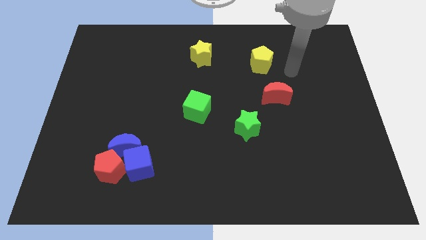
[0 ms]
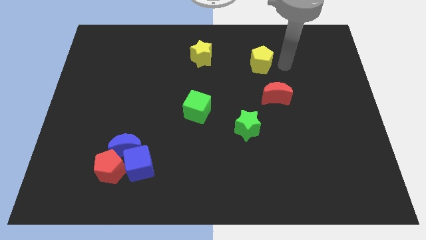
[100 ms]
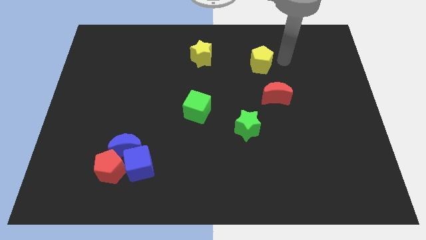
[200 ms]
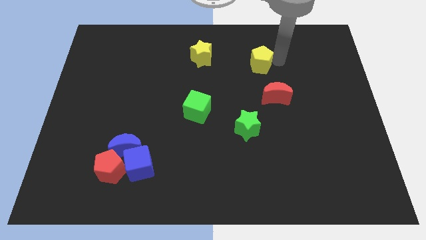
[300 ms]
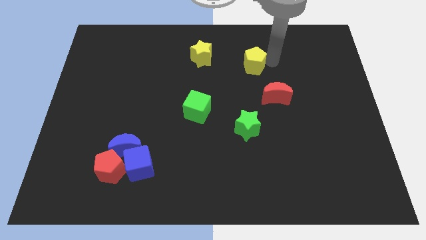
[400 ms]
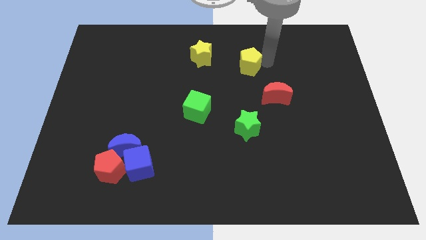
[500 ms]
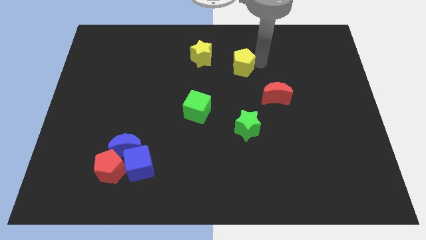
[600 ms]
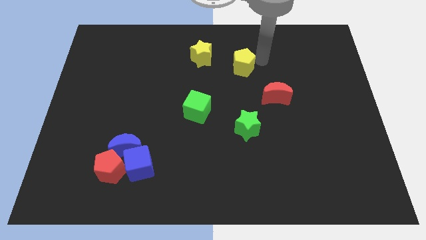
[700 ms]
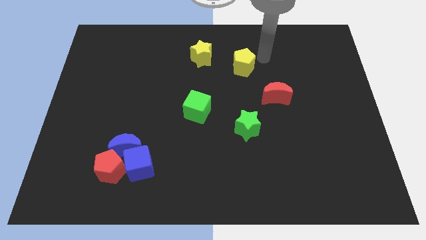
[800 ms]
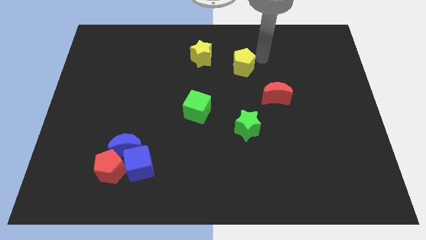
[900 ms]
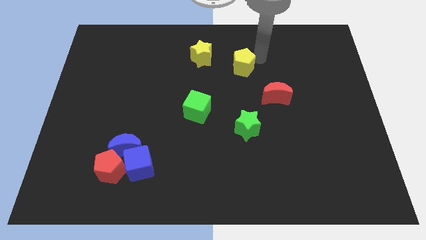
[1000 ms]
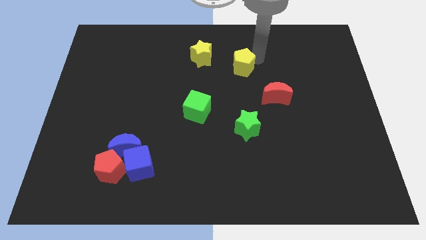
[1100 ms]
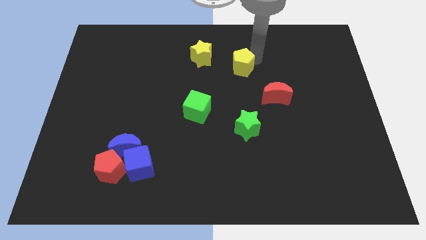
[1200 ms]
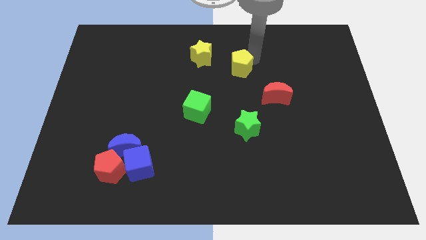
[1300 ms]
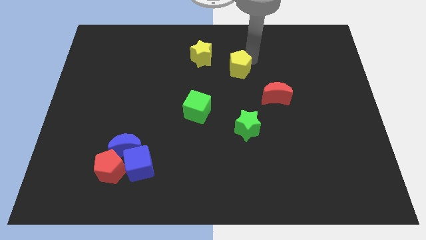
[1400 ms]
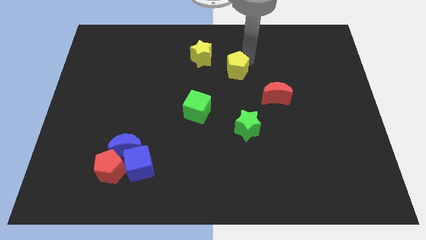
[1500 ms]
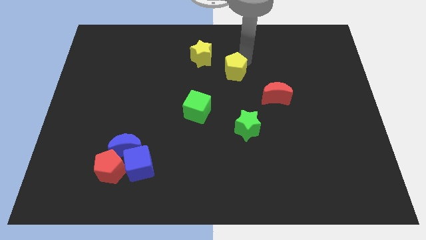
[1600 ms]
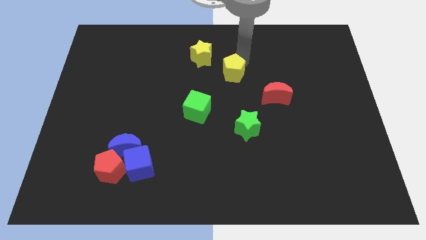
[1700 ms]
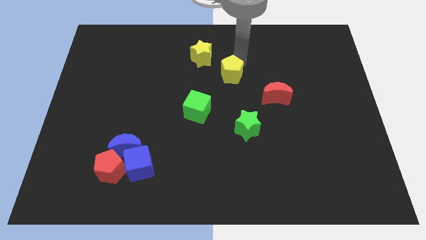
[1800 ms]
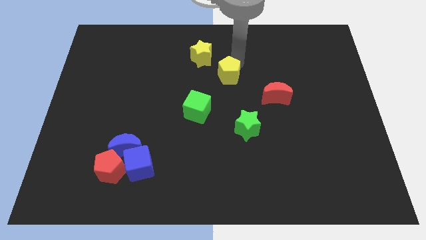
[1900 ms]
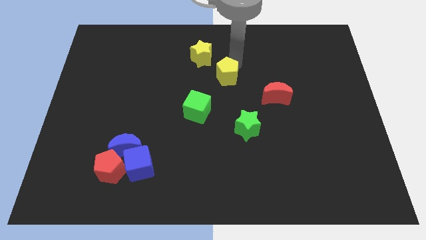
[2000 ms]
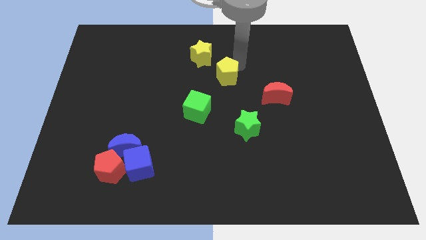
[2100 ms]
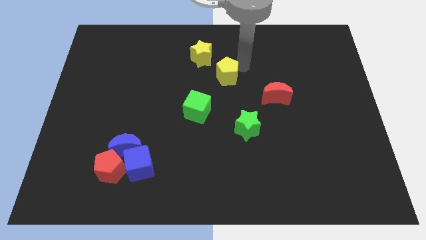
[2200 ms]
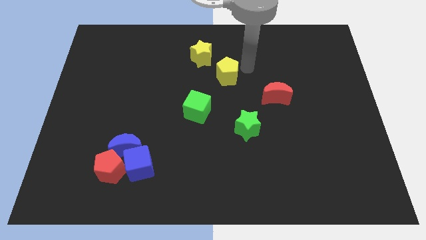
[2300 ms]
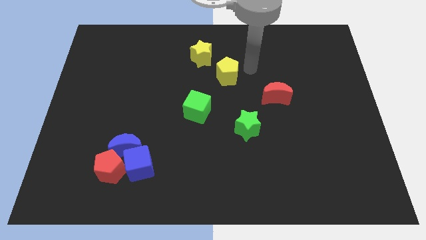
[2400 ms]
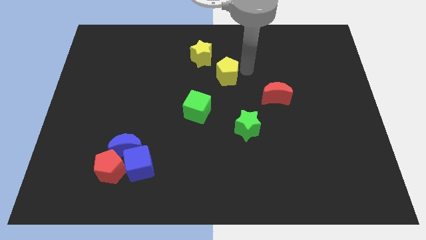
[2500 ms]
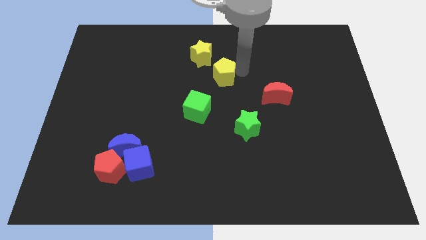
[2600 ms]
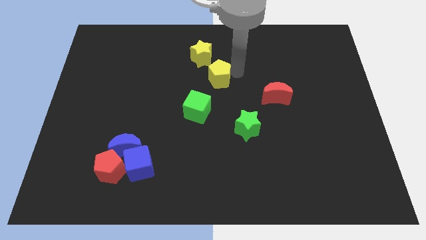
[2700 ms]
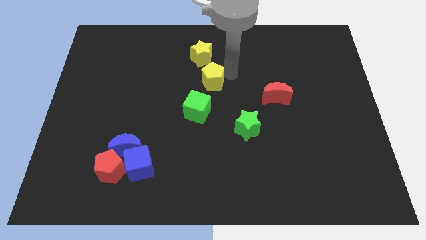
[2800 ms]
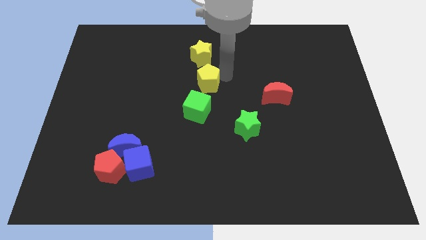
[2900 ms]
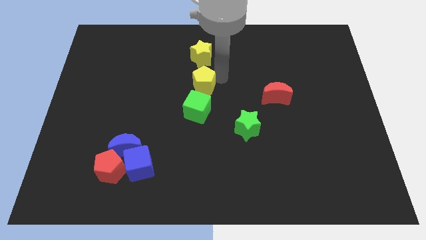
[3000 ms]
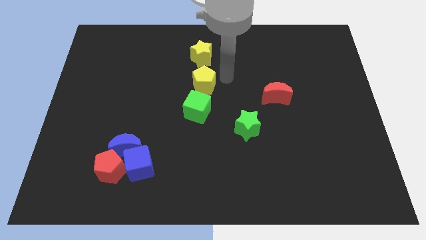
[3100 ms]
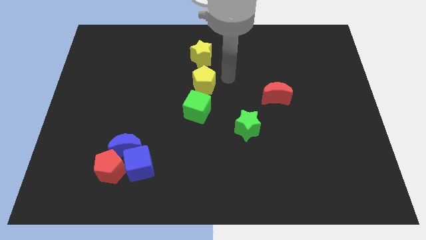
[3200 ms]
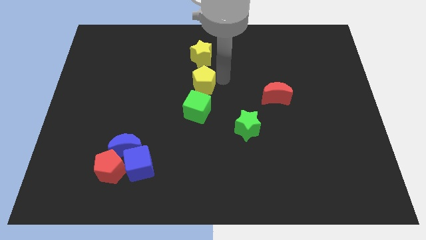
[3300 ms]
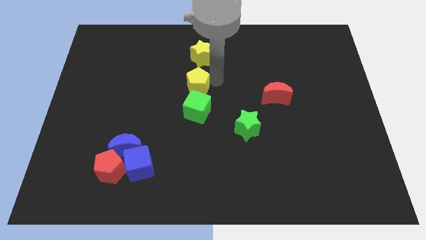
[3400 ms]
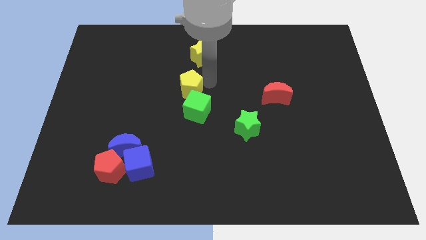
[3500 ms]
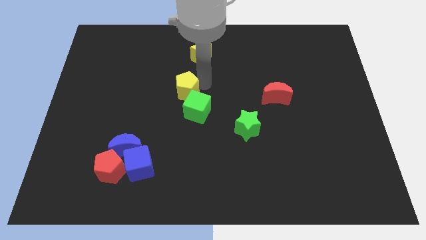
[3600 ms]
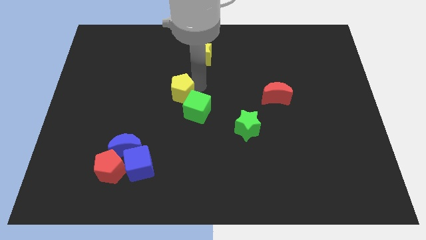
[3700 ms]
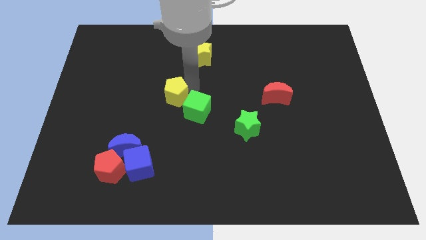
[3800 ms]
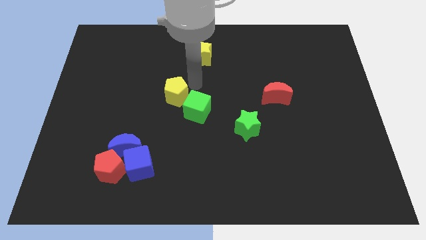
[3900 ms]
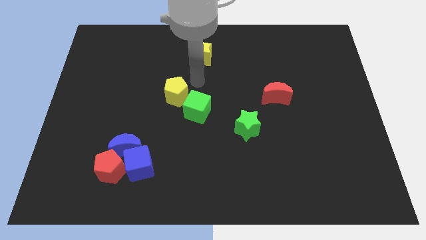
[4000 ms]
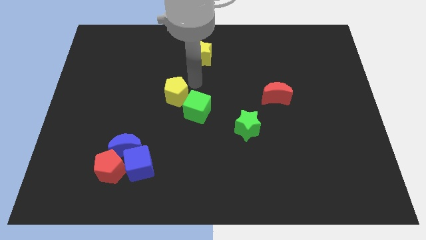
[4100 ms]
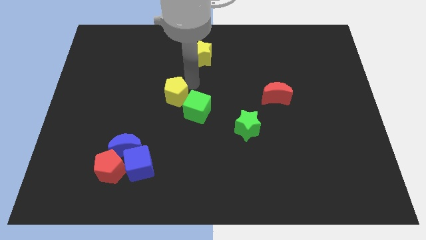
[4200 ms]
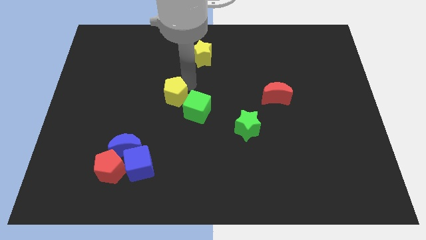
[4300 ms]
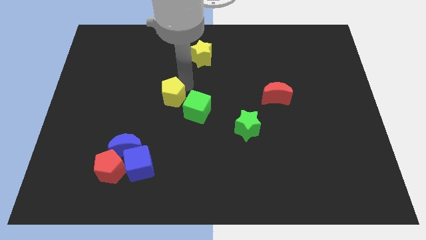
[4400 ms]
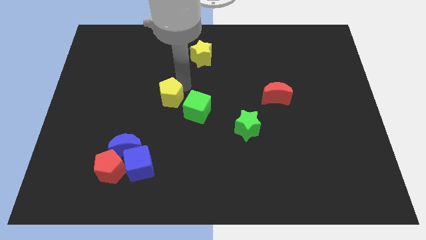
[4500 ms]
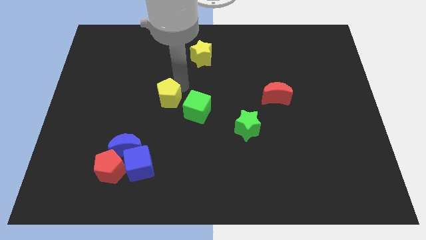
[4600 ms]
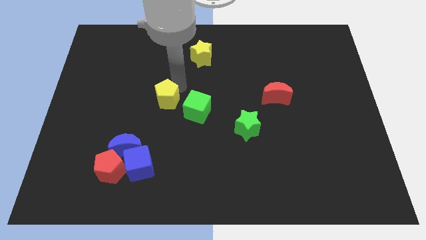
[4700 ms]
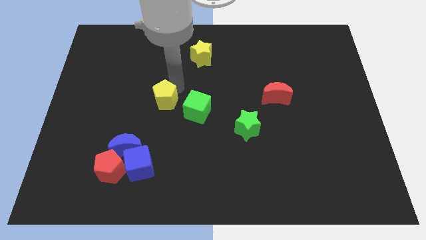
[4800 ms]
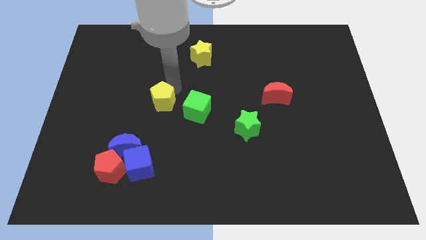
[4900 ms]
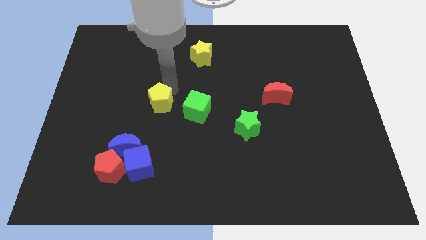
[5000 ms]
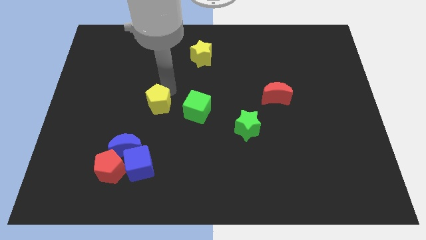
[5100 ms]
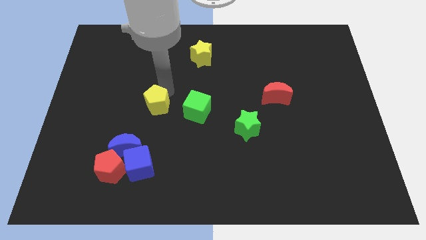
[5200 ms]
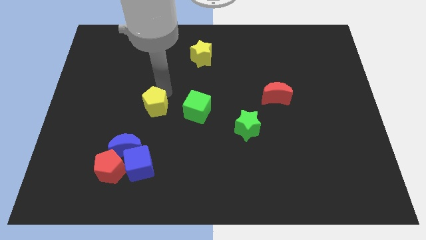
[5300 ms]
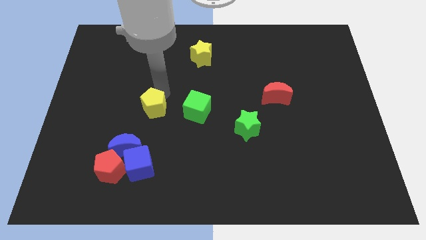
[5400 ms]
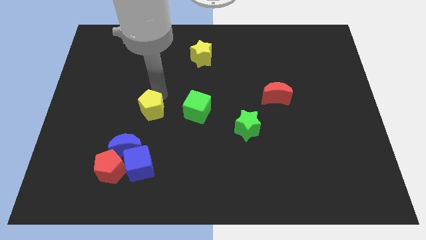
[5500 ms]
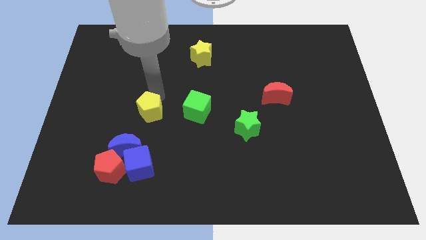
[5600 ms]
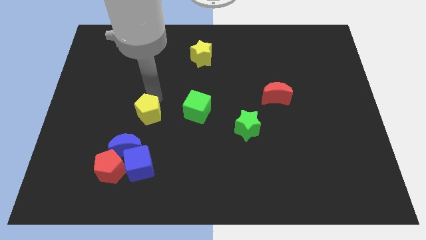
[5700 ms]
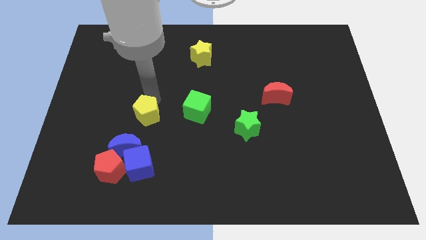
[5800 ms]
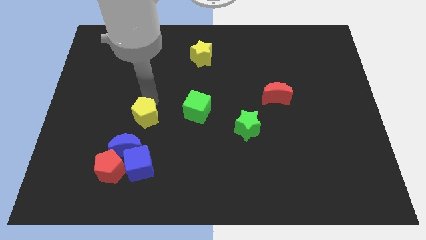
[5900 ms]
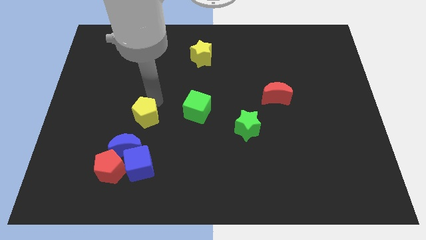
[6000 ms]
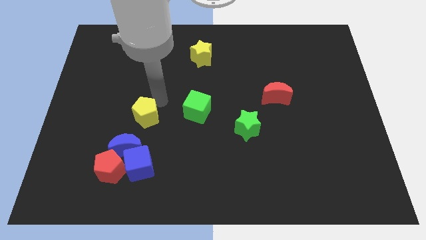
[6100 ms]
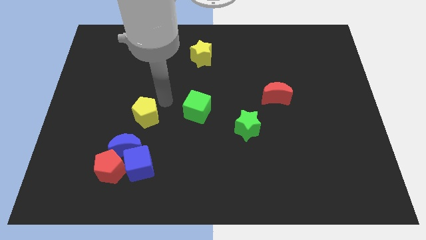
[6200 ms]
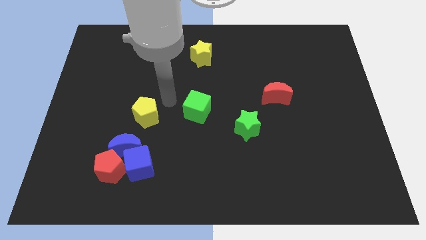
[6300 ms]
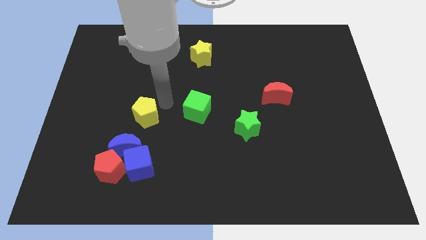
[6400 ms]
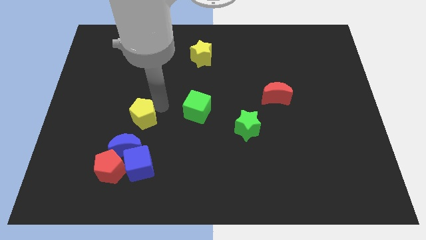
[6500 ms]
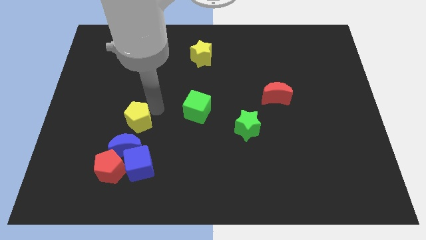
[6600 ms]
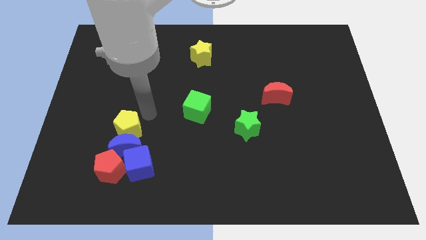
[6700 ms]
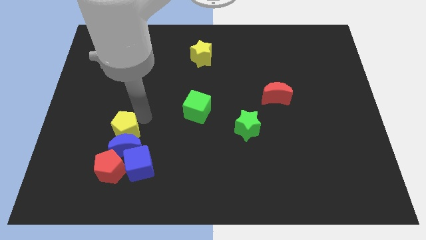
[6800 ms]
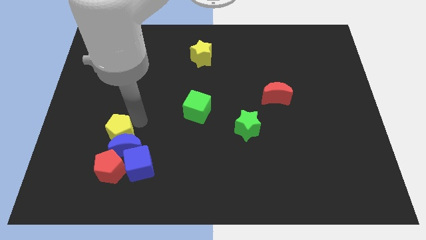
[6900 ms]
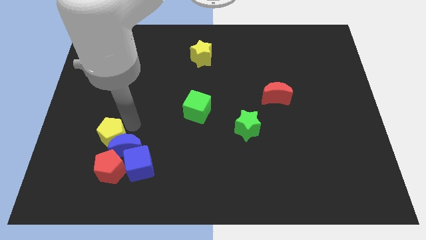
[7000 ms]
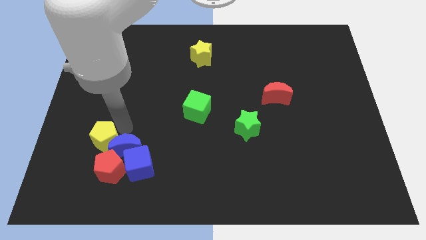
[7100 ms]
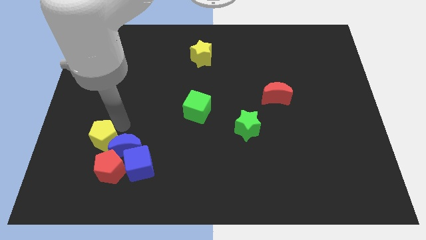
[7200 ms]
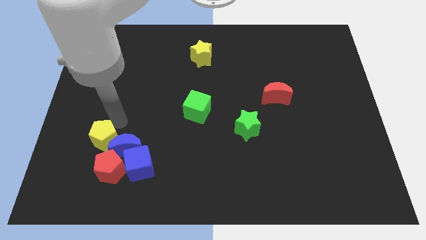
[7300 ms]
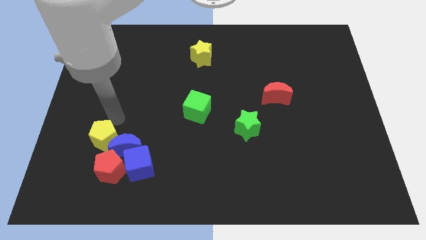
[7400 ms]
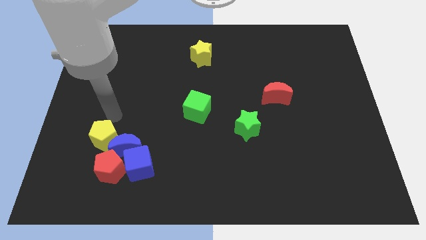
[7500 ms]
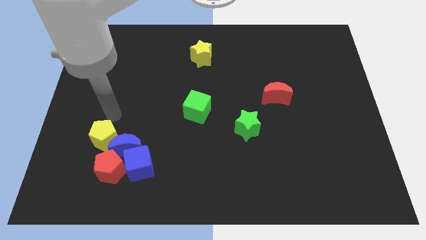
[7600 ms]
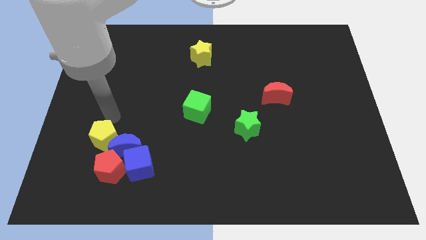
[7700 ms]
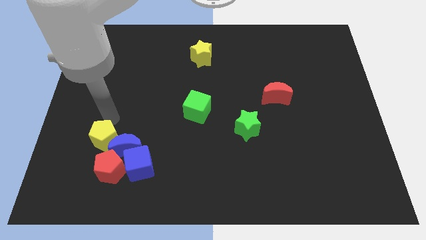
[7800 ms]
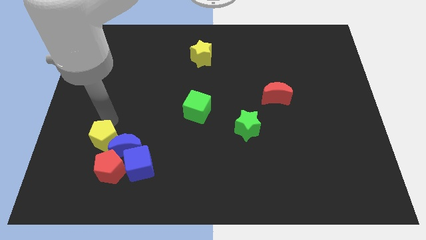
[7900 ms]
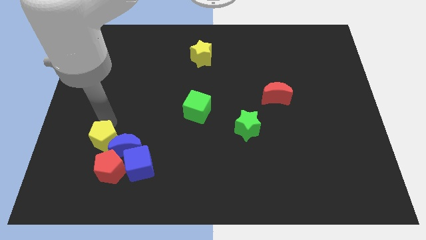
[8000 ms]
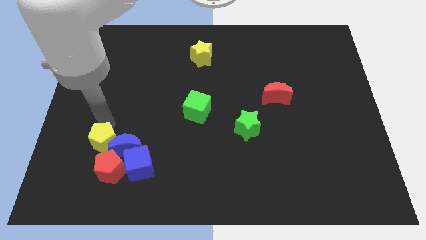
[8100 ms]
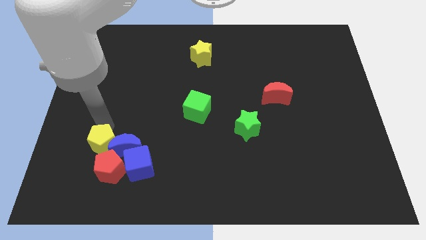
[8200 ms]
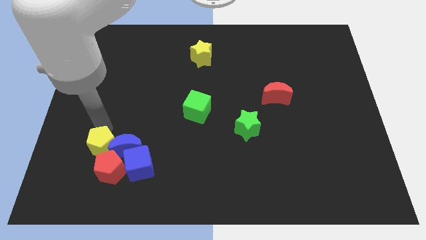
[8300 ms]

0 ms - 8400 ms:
move the yellow pentagon next to the red pentagon
